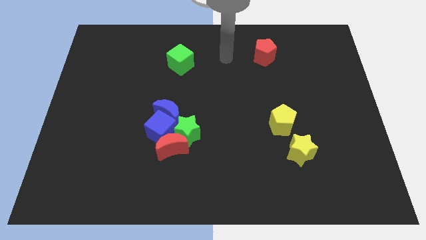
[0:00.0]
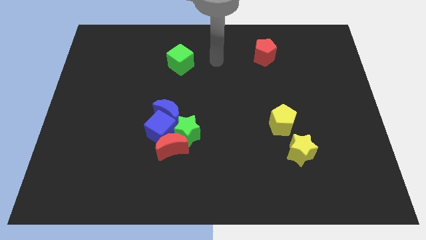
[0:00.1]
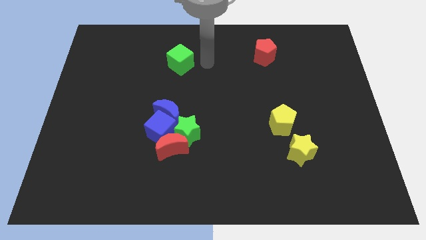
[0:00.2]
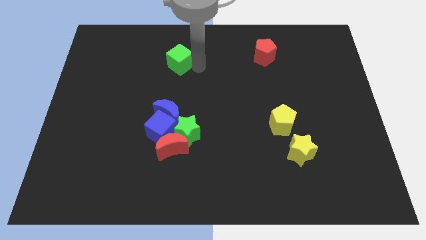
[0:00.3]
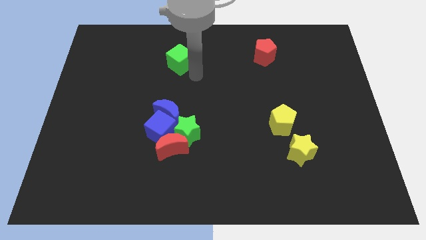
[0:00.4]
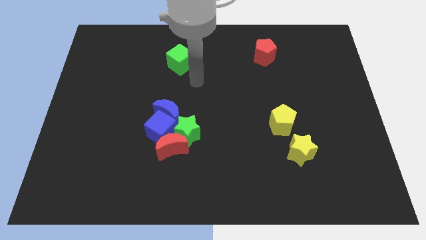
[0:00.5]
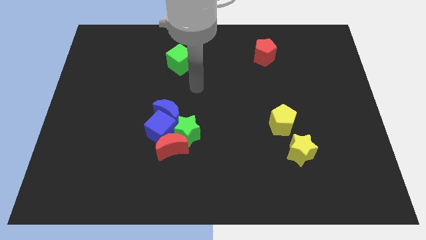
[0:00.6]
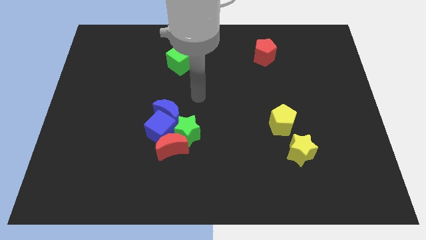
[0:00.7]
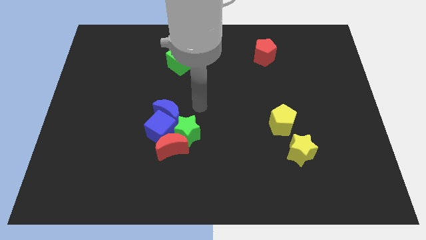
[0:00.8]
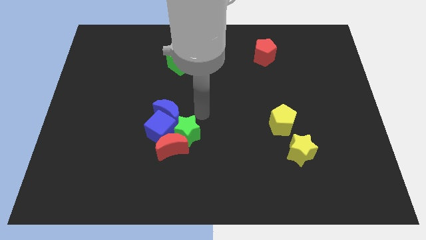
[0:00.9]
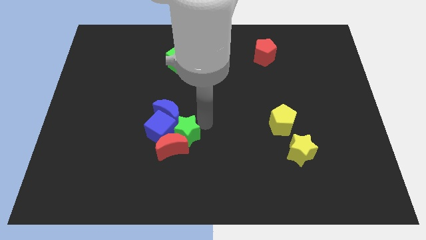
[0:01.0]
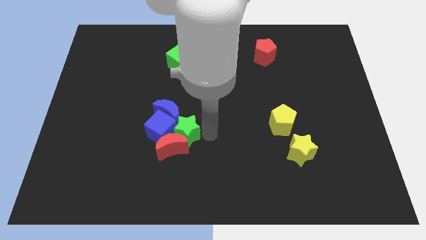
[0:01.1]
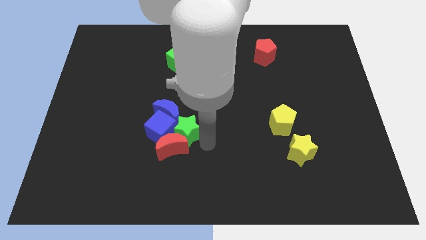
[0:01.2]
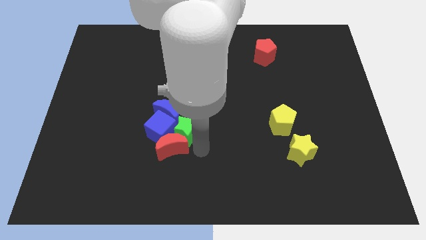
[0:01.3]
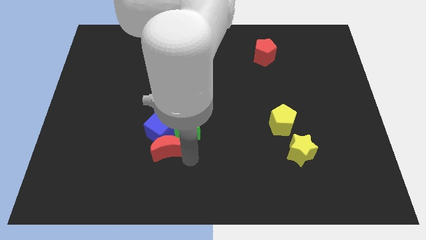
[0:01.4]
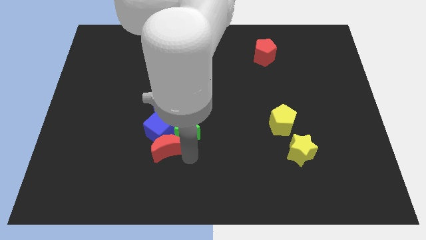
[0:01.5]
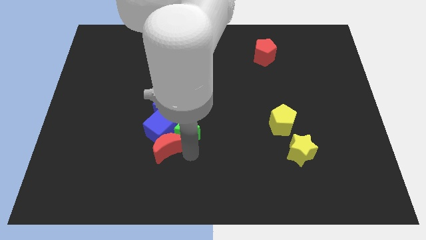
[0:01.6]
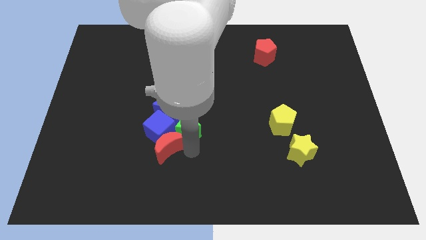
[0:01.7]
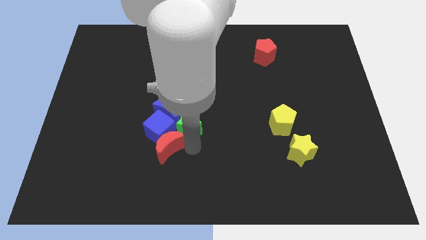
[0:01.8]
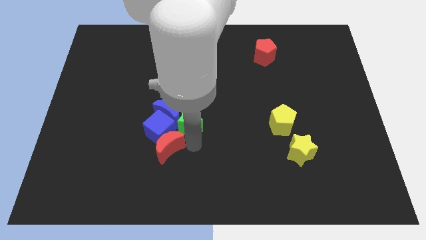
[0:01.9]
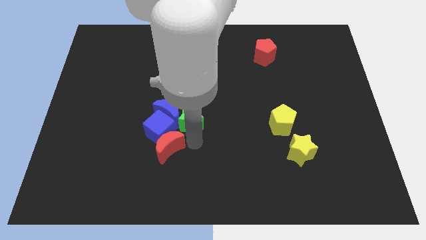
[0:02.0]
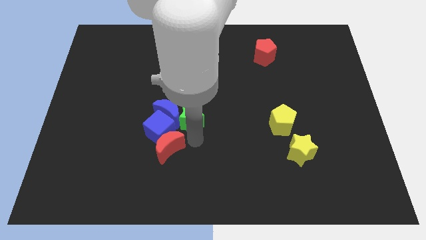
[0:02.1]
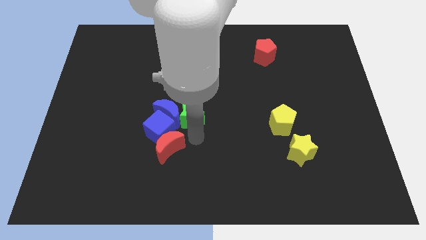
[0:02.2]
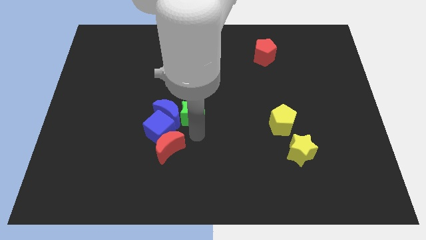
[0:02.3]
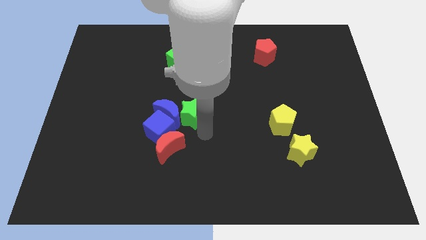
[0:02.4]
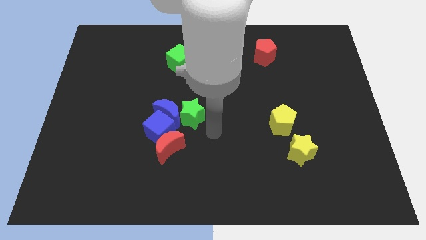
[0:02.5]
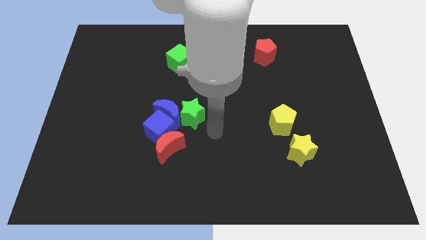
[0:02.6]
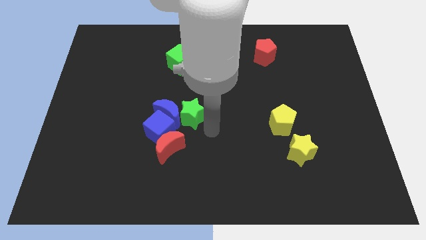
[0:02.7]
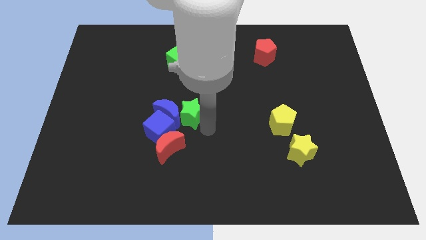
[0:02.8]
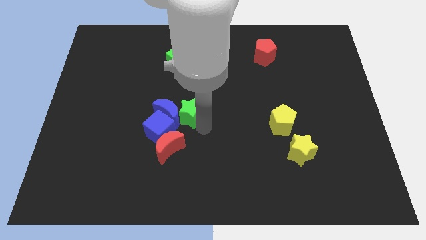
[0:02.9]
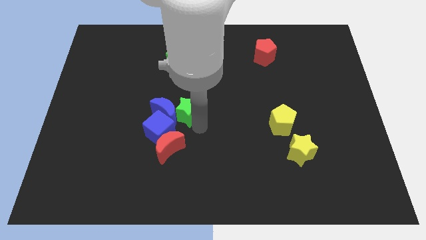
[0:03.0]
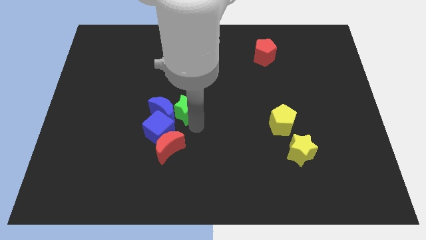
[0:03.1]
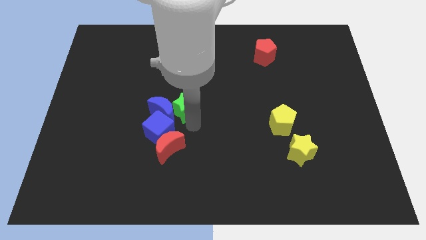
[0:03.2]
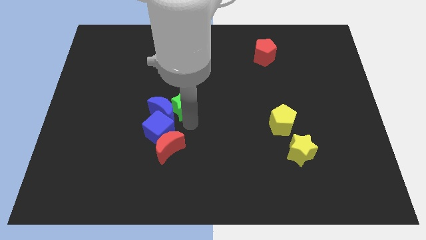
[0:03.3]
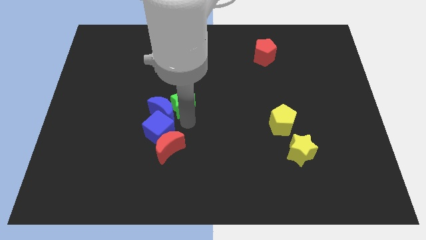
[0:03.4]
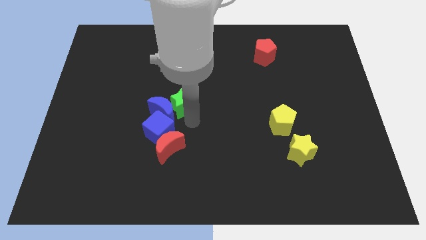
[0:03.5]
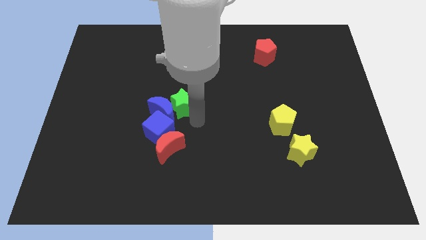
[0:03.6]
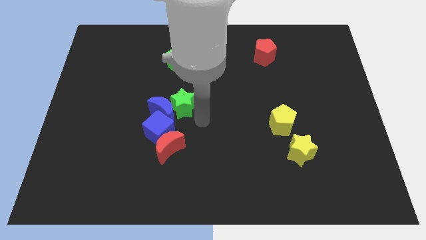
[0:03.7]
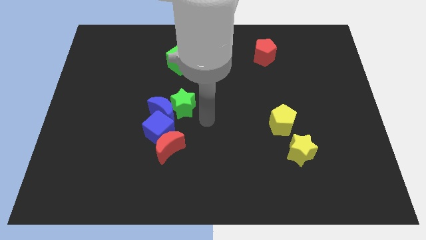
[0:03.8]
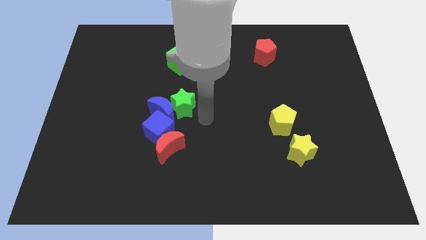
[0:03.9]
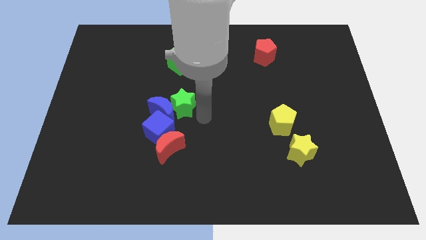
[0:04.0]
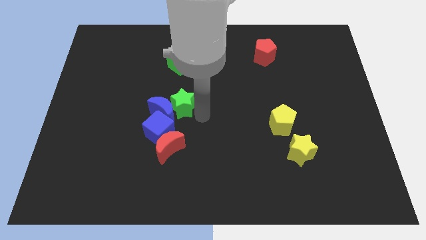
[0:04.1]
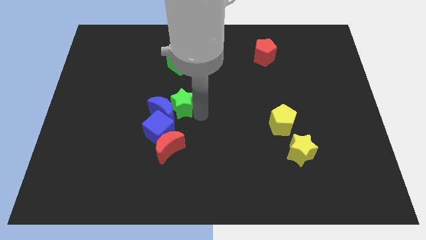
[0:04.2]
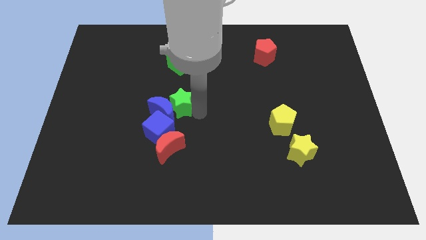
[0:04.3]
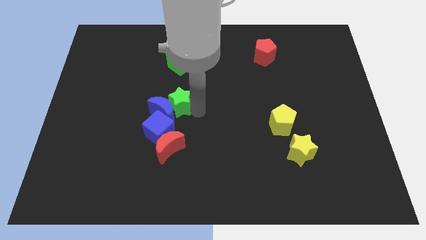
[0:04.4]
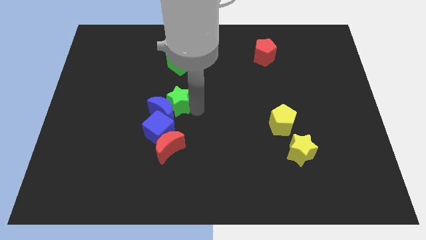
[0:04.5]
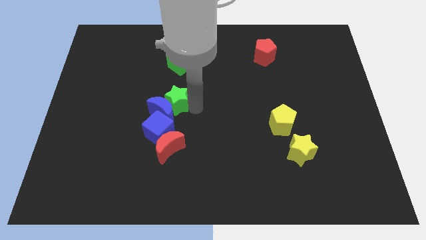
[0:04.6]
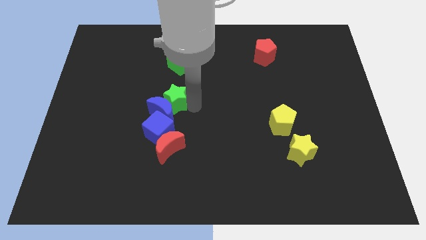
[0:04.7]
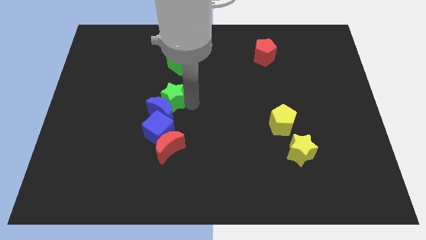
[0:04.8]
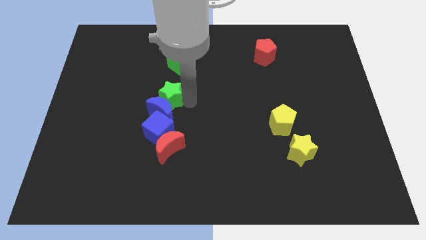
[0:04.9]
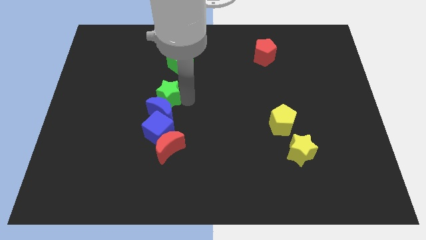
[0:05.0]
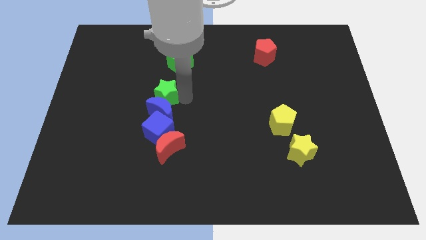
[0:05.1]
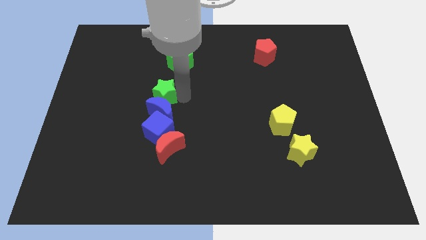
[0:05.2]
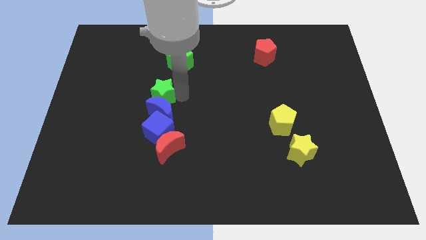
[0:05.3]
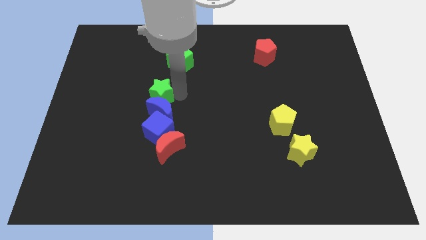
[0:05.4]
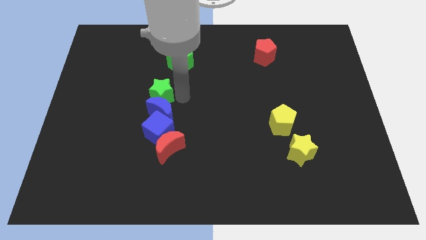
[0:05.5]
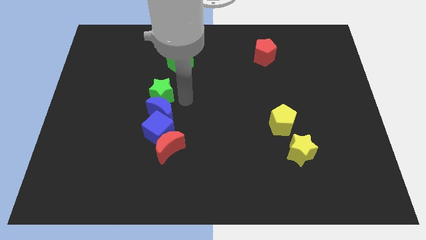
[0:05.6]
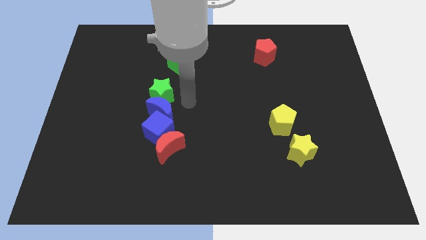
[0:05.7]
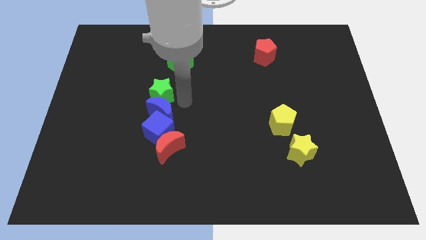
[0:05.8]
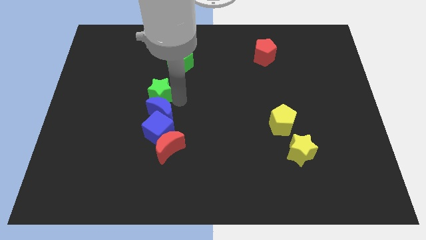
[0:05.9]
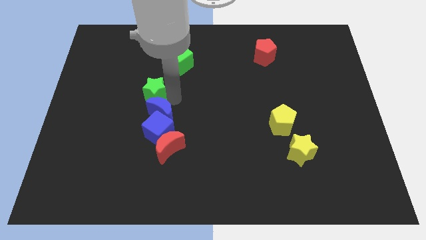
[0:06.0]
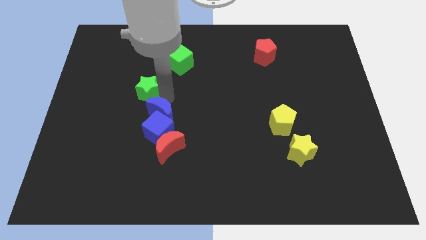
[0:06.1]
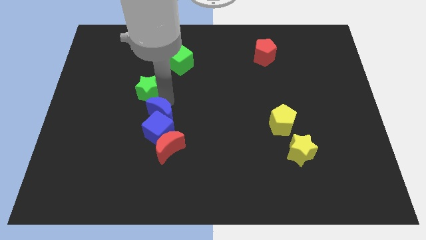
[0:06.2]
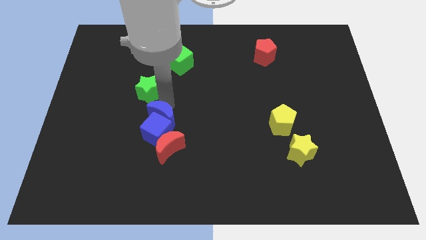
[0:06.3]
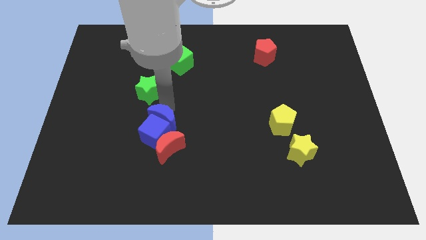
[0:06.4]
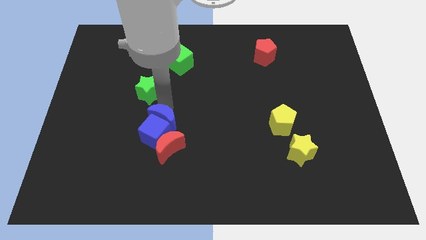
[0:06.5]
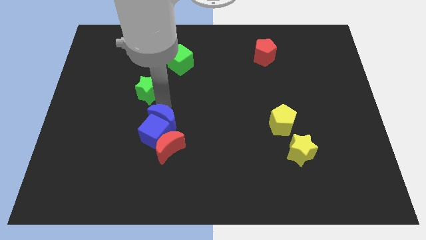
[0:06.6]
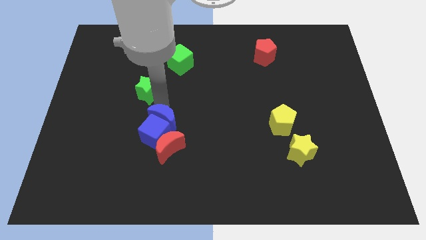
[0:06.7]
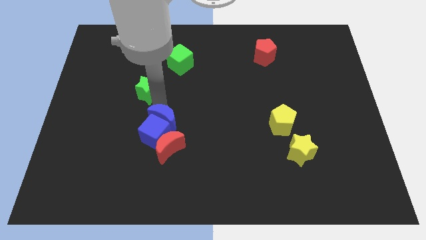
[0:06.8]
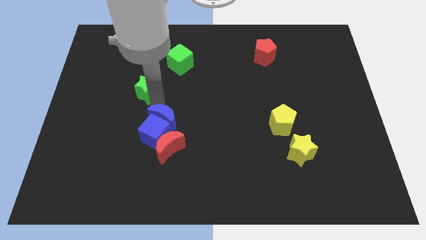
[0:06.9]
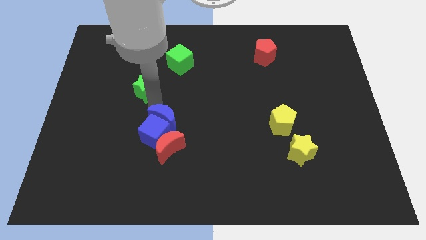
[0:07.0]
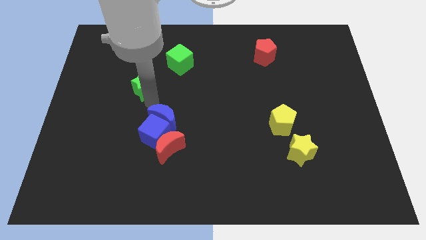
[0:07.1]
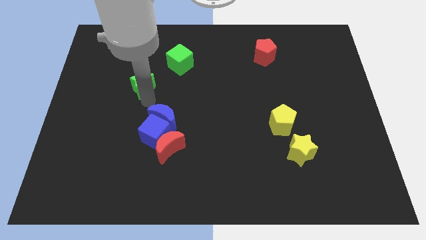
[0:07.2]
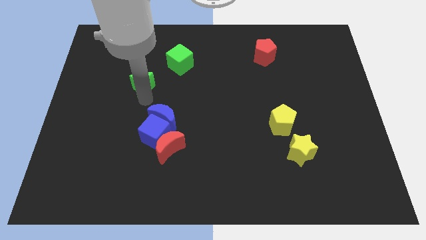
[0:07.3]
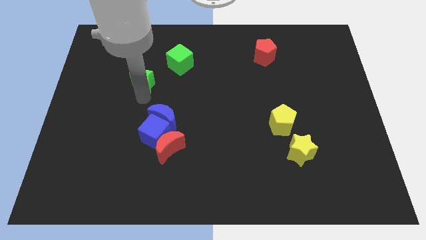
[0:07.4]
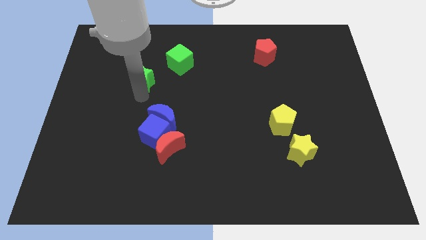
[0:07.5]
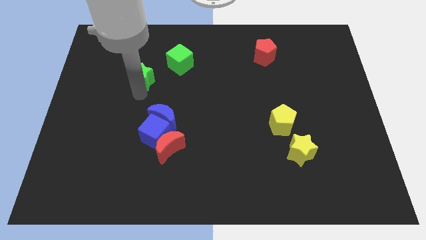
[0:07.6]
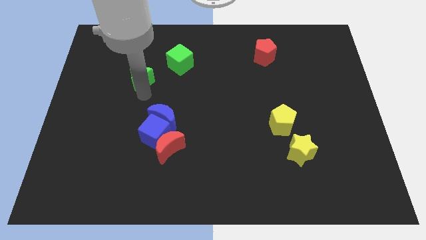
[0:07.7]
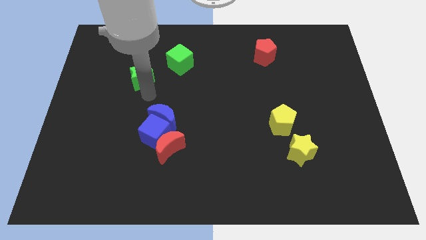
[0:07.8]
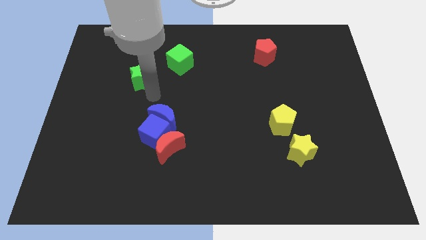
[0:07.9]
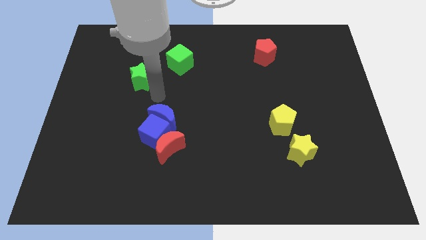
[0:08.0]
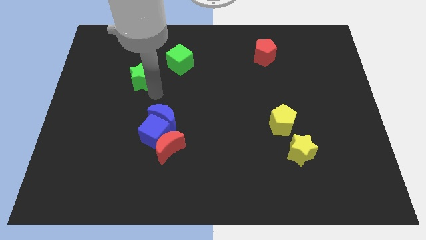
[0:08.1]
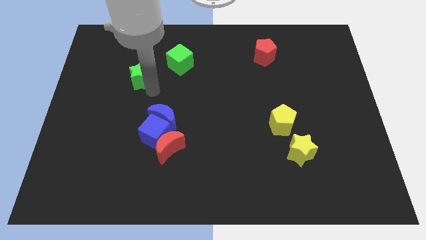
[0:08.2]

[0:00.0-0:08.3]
slide the green star up and left

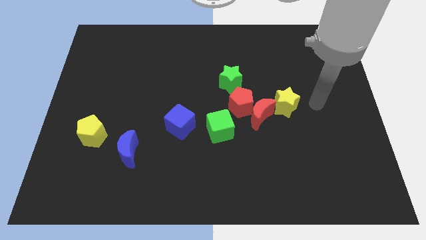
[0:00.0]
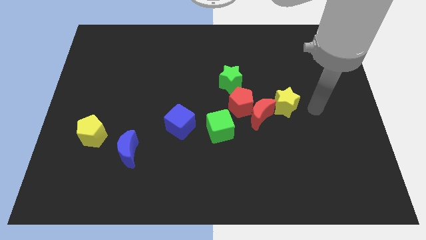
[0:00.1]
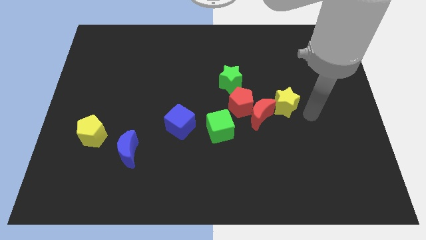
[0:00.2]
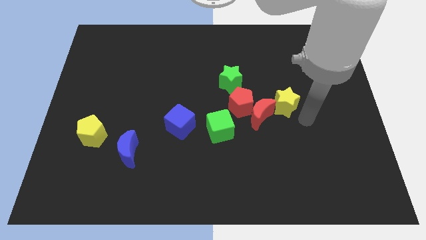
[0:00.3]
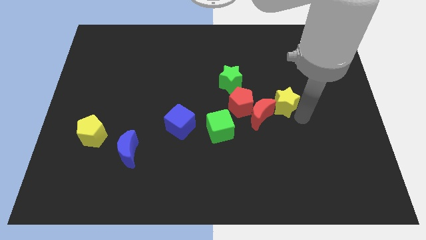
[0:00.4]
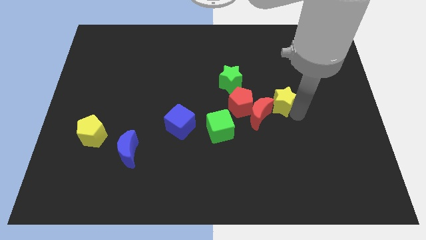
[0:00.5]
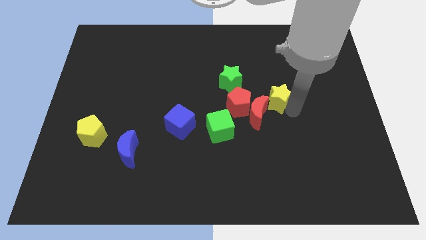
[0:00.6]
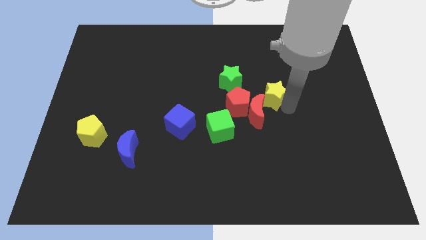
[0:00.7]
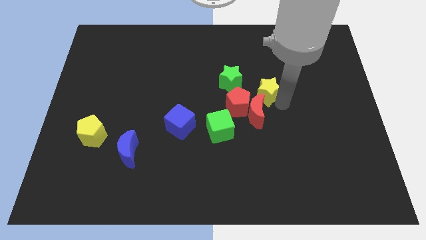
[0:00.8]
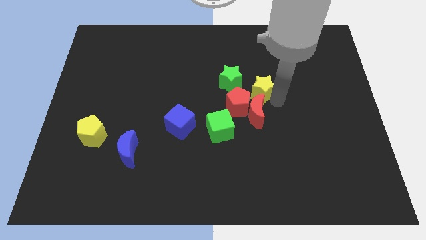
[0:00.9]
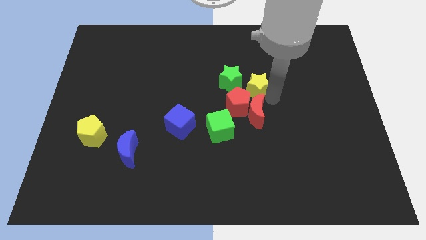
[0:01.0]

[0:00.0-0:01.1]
push the yellow star slightly diagonally upwards and to the left
